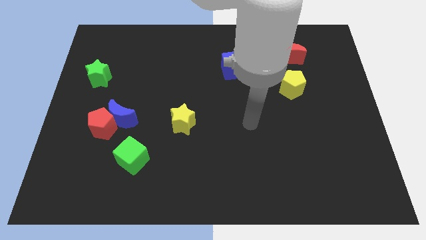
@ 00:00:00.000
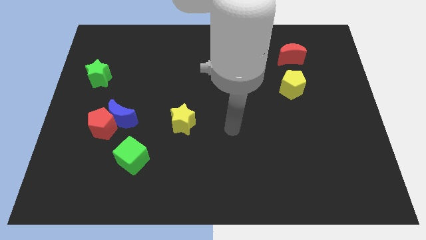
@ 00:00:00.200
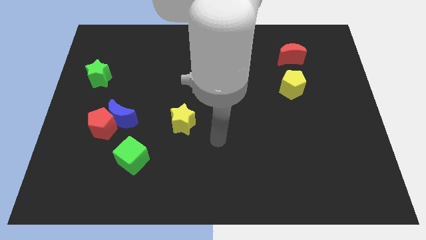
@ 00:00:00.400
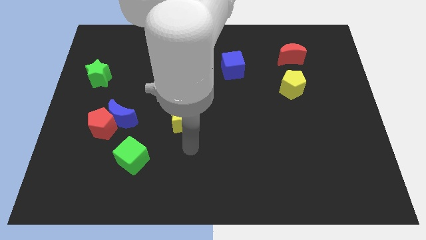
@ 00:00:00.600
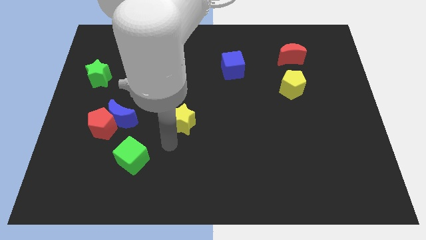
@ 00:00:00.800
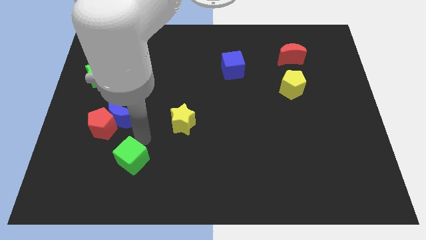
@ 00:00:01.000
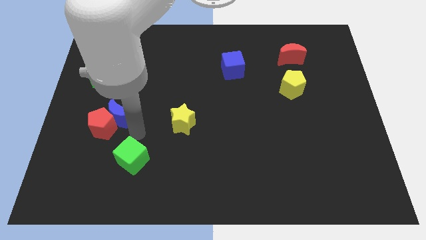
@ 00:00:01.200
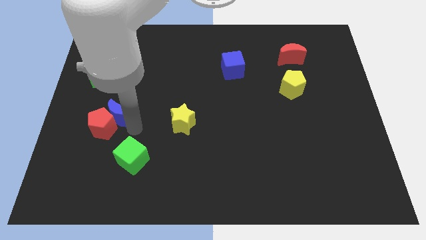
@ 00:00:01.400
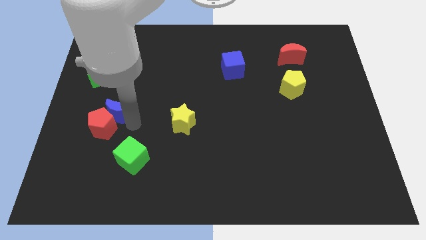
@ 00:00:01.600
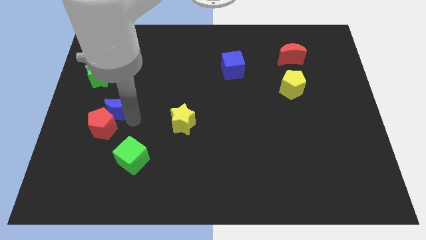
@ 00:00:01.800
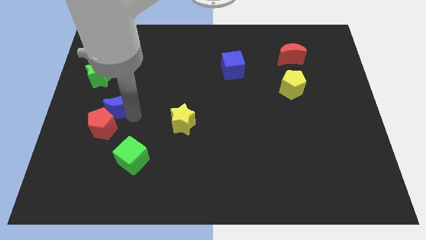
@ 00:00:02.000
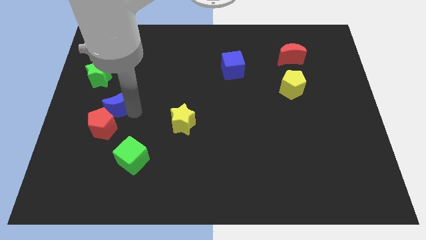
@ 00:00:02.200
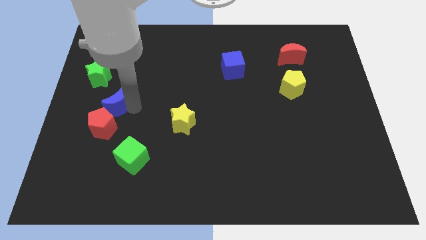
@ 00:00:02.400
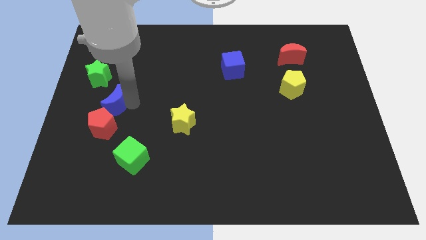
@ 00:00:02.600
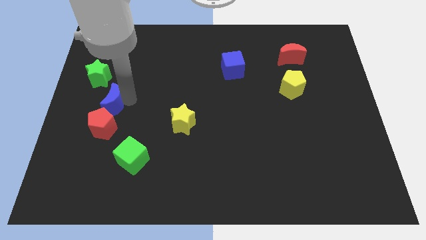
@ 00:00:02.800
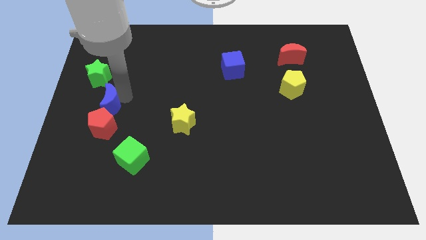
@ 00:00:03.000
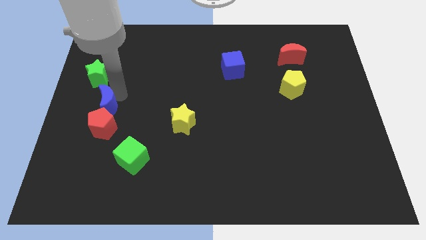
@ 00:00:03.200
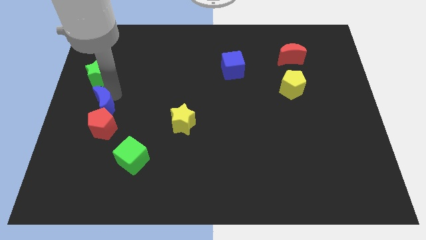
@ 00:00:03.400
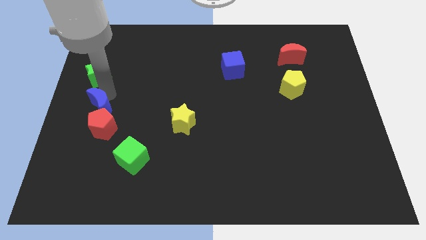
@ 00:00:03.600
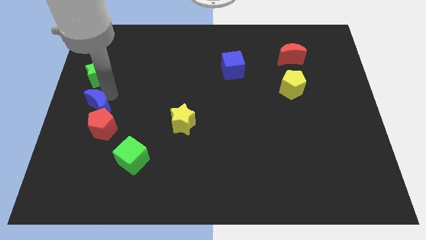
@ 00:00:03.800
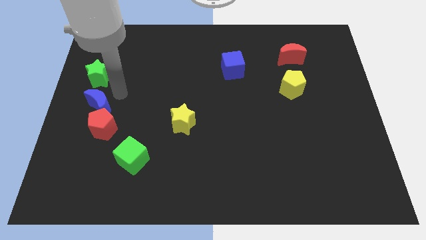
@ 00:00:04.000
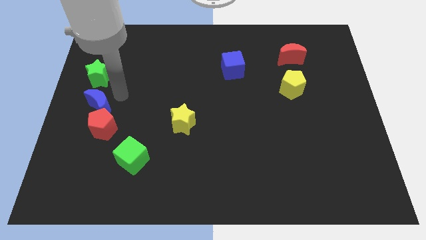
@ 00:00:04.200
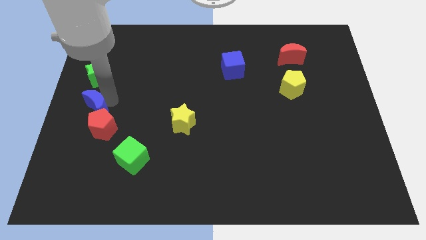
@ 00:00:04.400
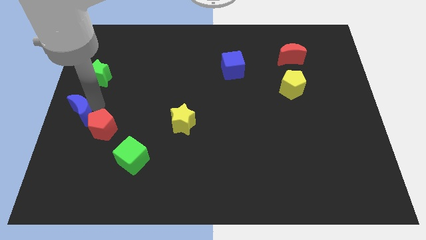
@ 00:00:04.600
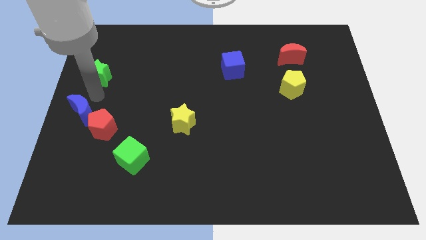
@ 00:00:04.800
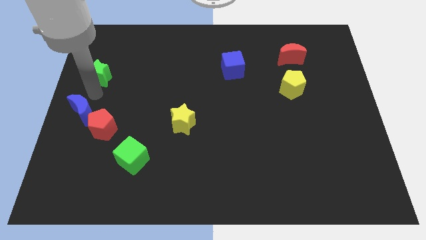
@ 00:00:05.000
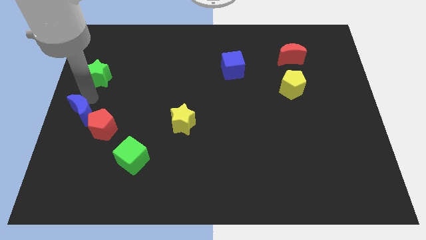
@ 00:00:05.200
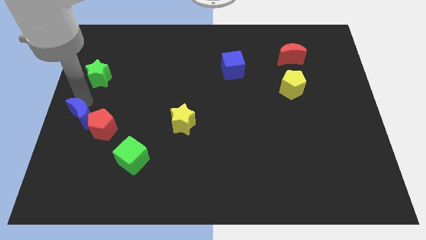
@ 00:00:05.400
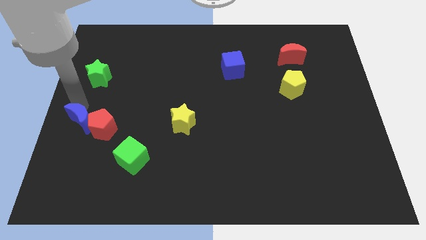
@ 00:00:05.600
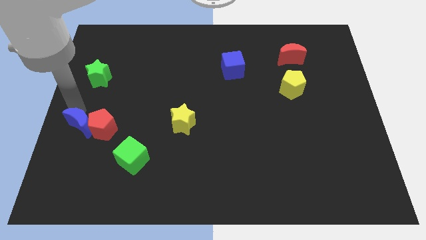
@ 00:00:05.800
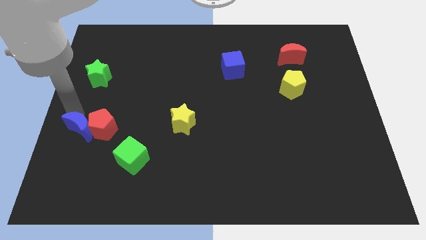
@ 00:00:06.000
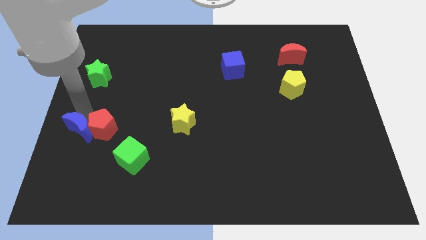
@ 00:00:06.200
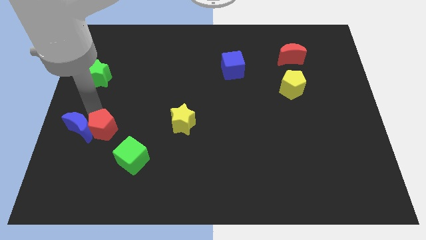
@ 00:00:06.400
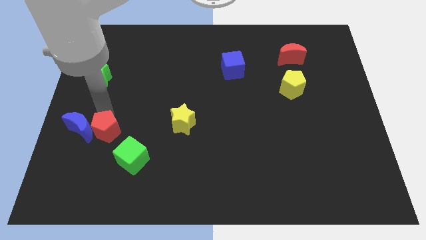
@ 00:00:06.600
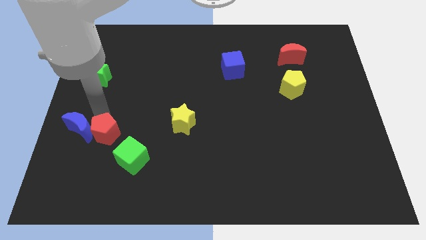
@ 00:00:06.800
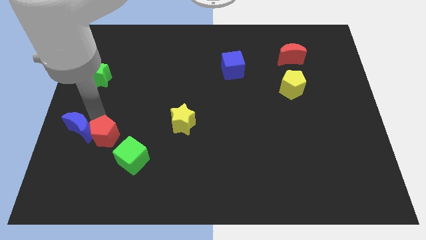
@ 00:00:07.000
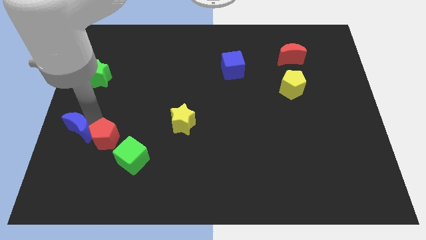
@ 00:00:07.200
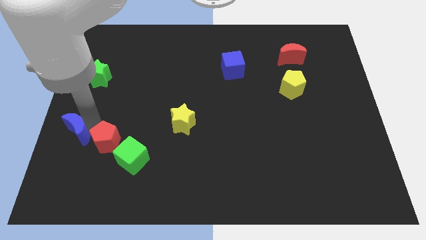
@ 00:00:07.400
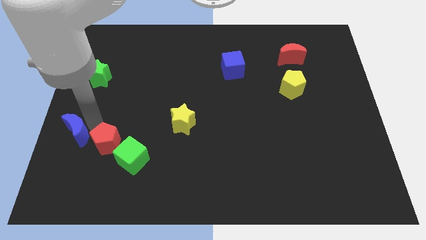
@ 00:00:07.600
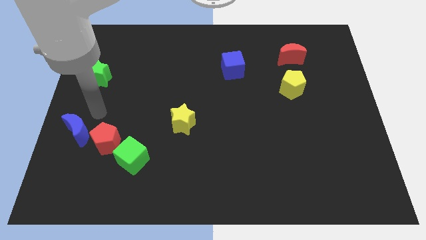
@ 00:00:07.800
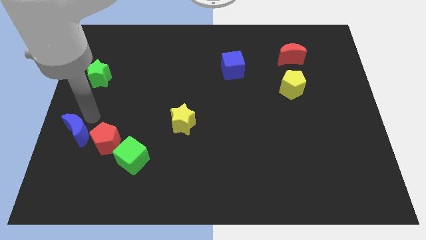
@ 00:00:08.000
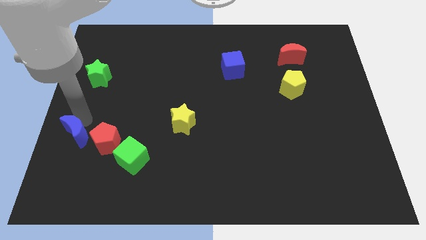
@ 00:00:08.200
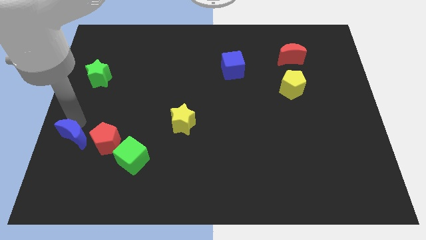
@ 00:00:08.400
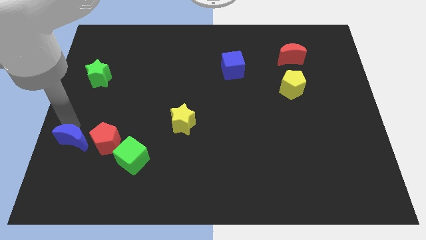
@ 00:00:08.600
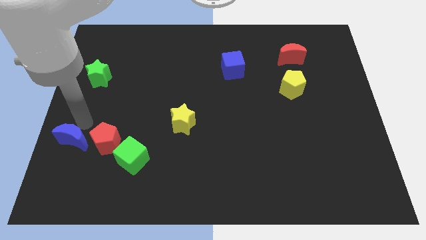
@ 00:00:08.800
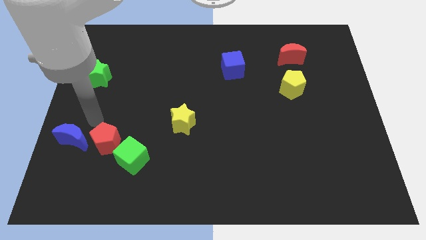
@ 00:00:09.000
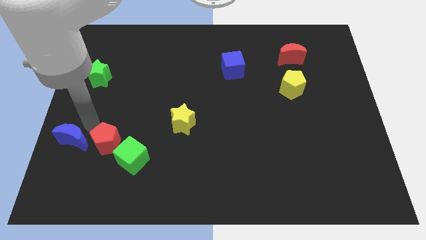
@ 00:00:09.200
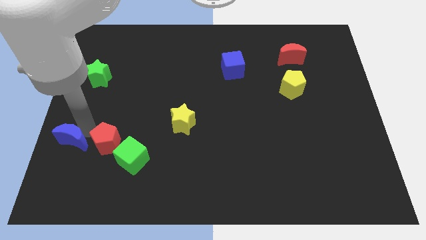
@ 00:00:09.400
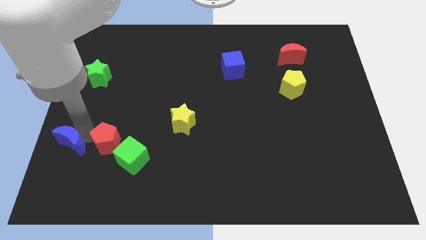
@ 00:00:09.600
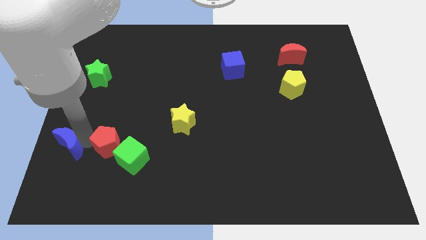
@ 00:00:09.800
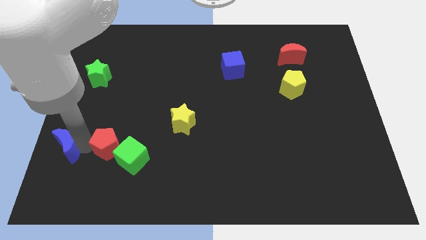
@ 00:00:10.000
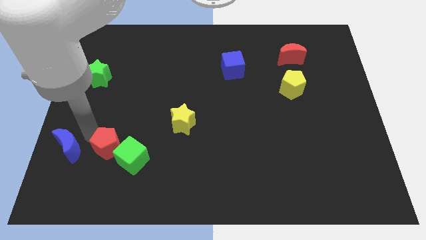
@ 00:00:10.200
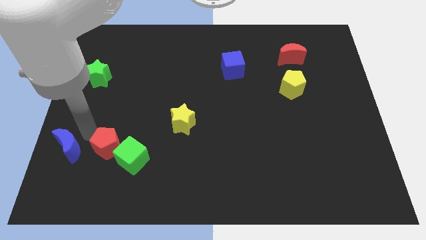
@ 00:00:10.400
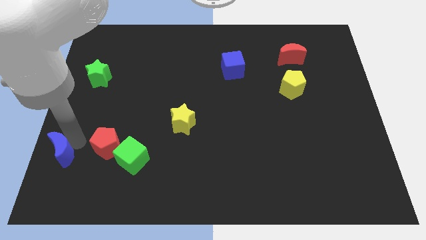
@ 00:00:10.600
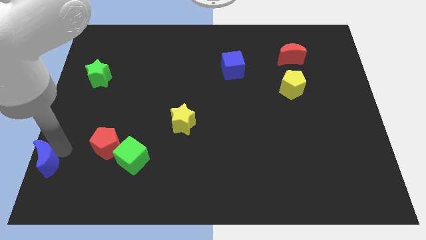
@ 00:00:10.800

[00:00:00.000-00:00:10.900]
move the blue moon to the bottom left of the board

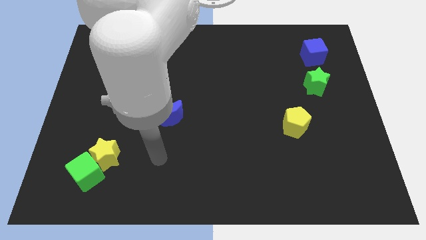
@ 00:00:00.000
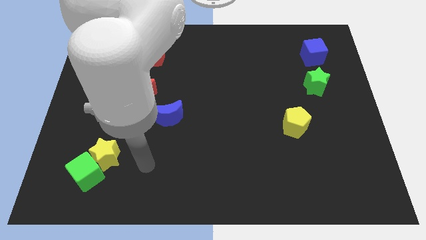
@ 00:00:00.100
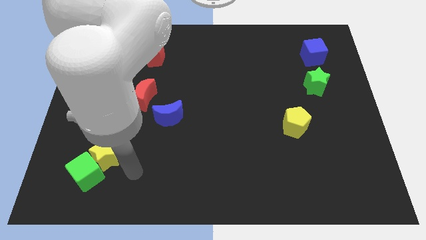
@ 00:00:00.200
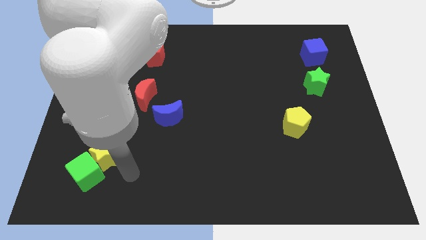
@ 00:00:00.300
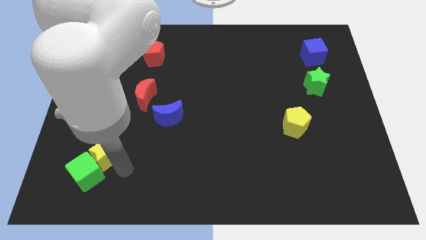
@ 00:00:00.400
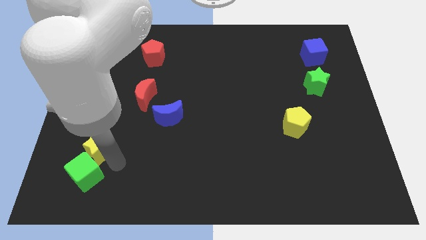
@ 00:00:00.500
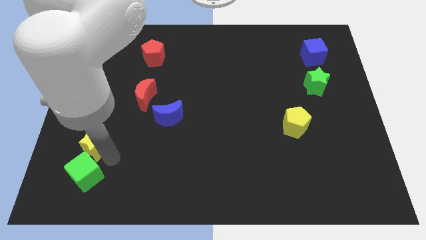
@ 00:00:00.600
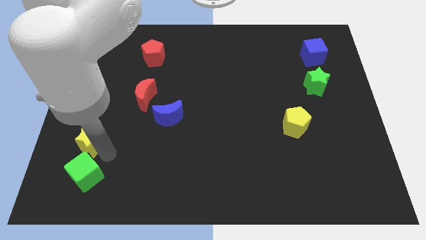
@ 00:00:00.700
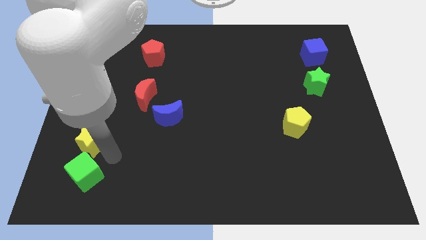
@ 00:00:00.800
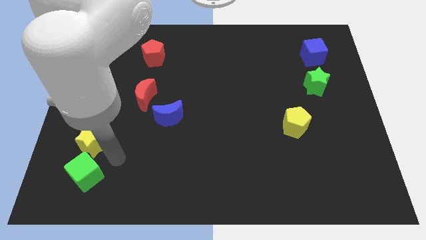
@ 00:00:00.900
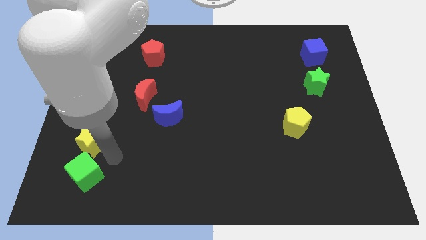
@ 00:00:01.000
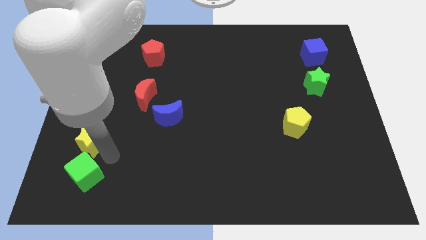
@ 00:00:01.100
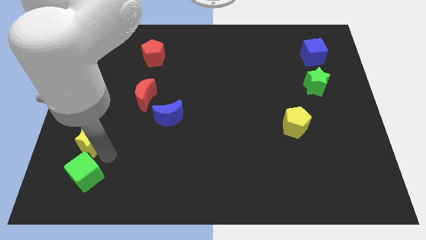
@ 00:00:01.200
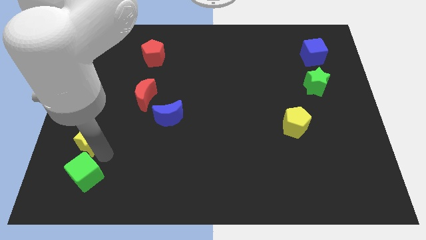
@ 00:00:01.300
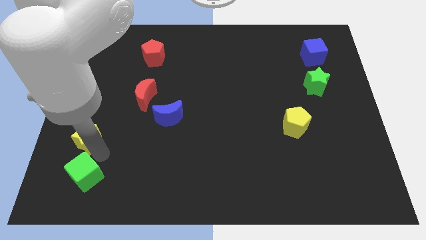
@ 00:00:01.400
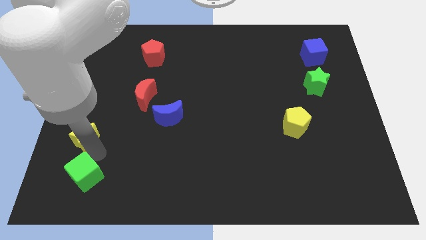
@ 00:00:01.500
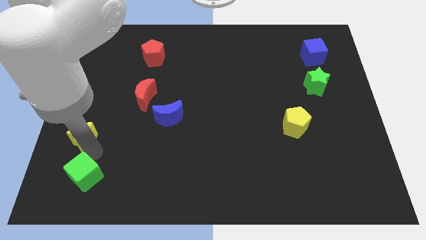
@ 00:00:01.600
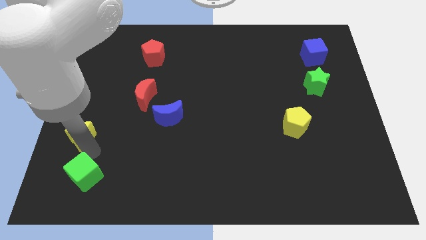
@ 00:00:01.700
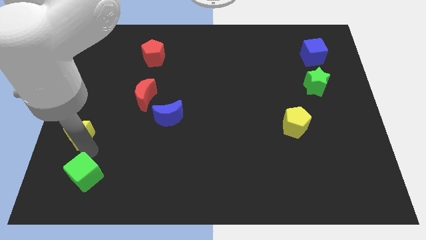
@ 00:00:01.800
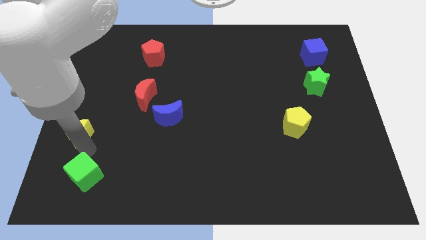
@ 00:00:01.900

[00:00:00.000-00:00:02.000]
put the yellow star to the left side
